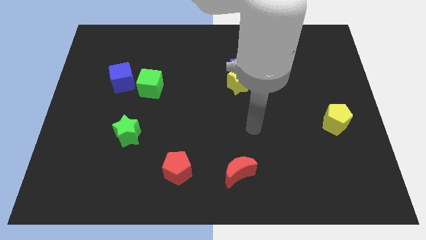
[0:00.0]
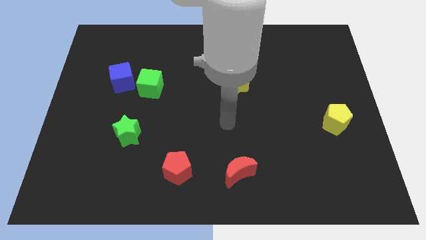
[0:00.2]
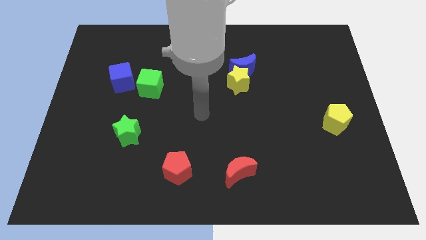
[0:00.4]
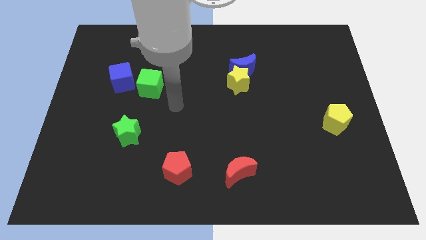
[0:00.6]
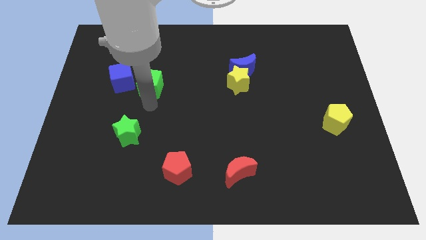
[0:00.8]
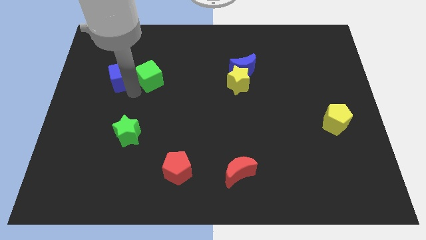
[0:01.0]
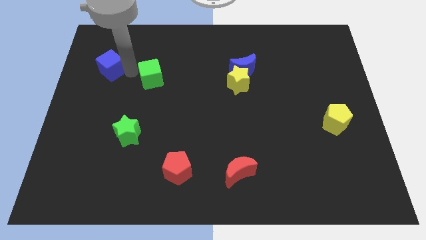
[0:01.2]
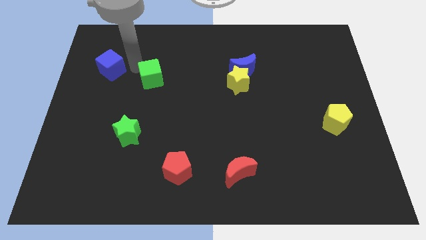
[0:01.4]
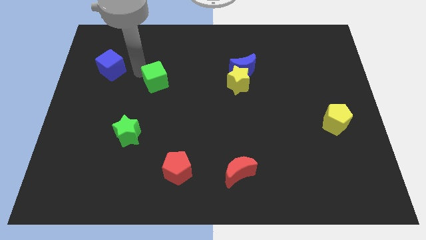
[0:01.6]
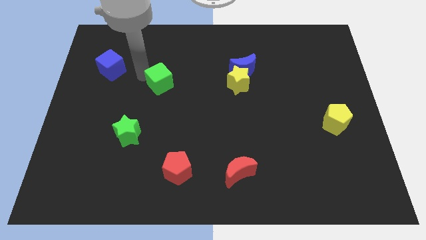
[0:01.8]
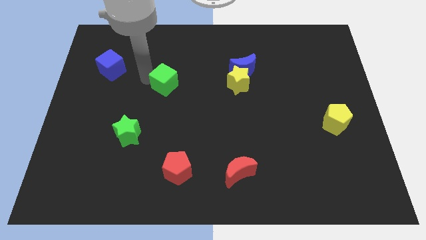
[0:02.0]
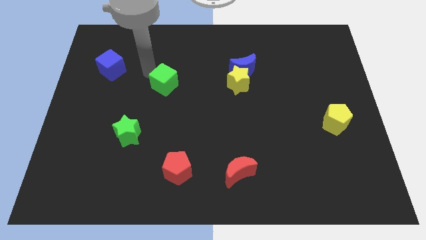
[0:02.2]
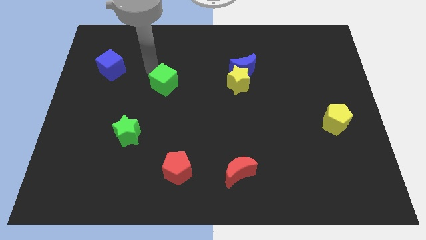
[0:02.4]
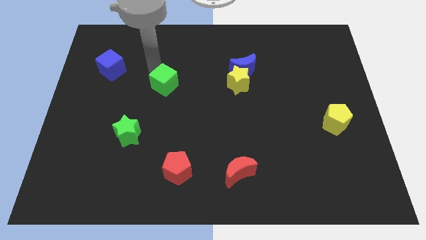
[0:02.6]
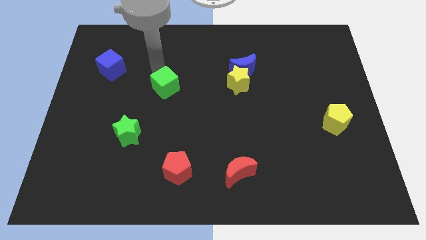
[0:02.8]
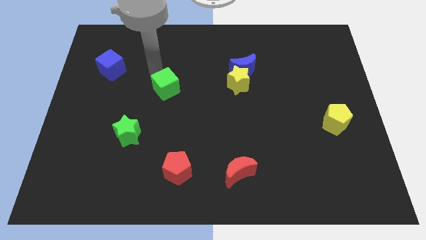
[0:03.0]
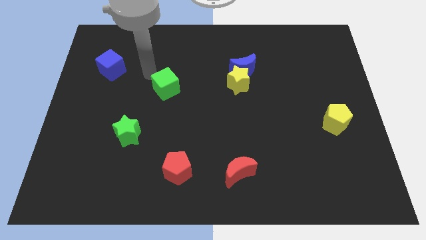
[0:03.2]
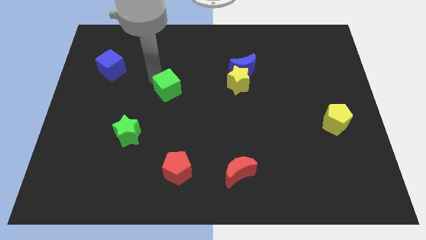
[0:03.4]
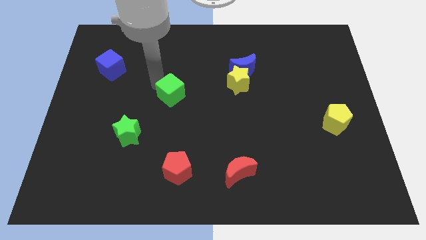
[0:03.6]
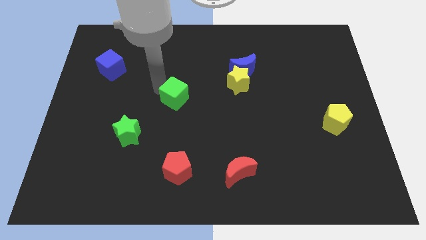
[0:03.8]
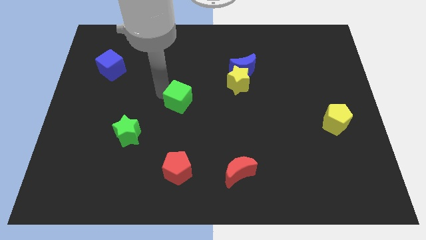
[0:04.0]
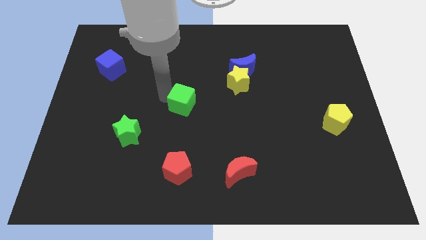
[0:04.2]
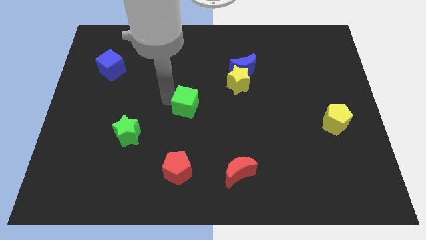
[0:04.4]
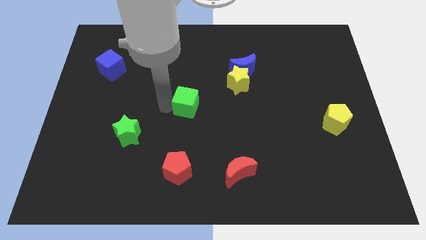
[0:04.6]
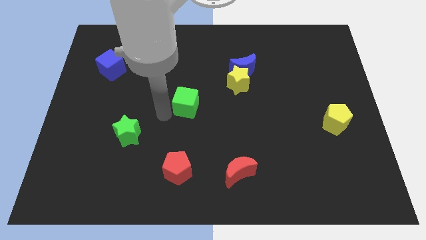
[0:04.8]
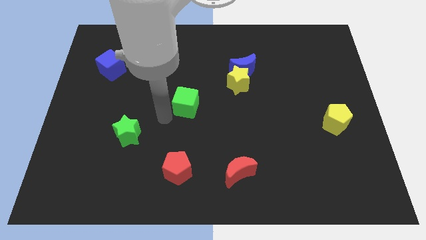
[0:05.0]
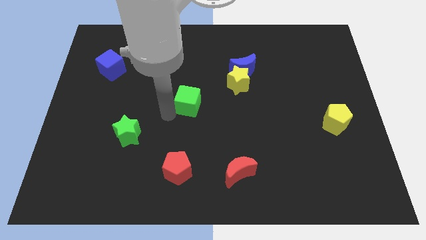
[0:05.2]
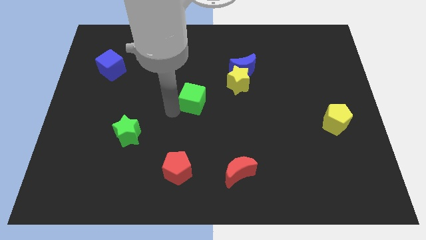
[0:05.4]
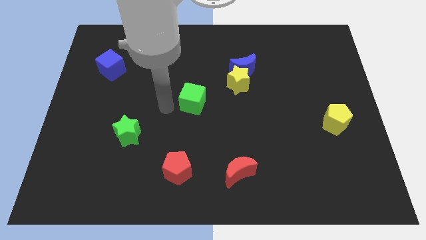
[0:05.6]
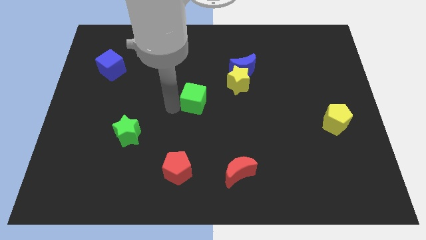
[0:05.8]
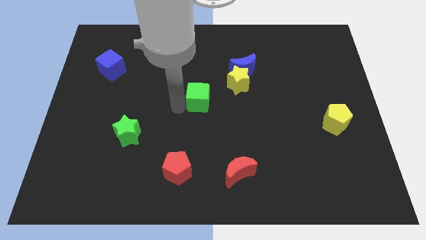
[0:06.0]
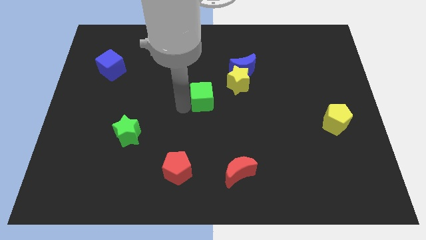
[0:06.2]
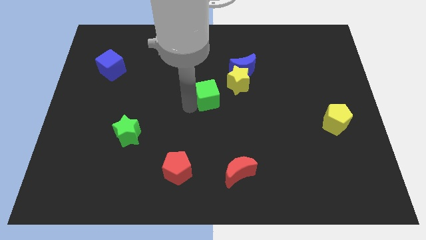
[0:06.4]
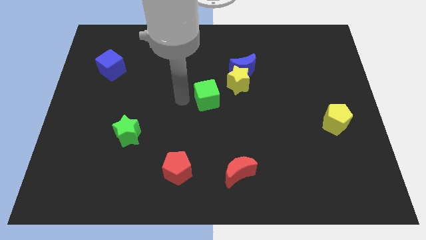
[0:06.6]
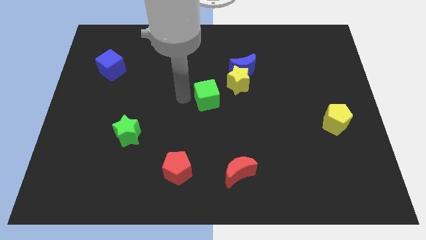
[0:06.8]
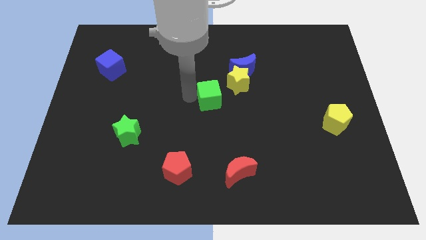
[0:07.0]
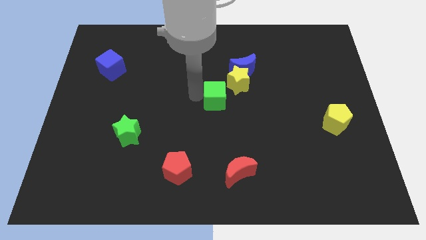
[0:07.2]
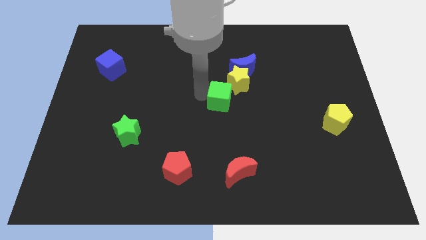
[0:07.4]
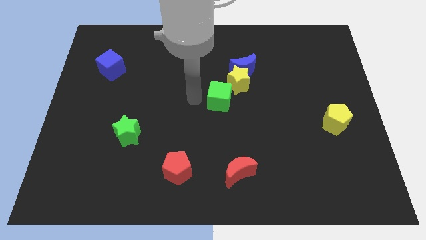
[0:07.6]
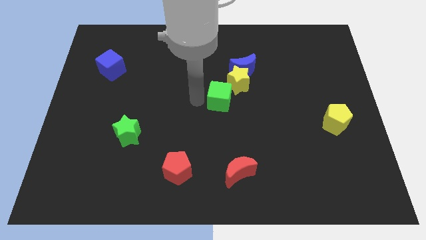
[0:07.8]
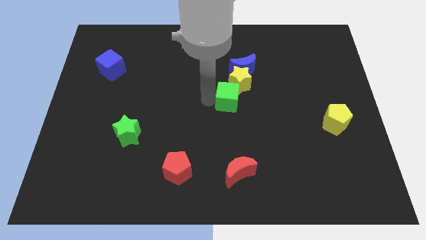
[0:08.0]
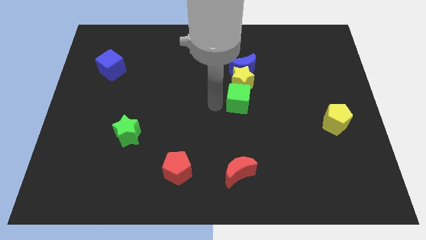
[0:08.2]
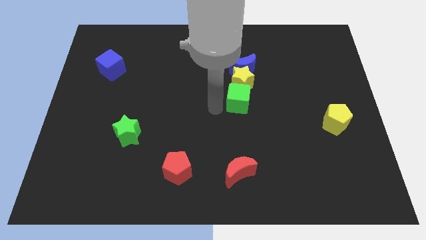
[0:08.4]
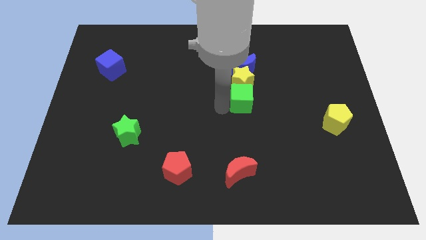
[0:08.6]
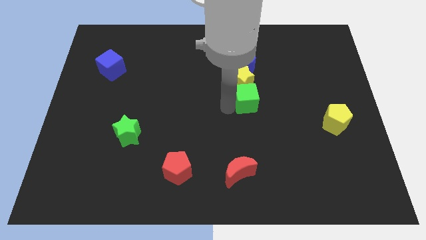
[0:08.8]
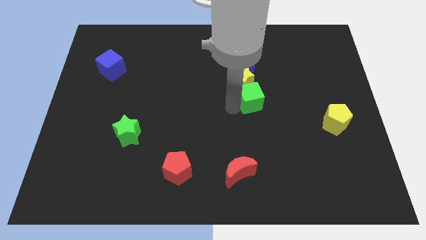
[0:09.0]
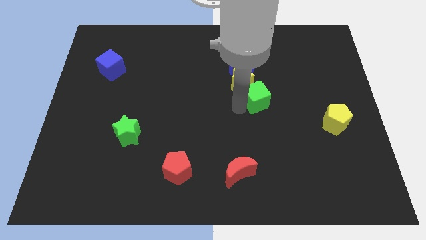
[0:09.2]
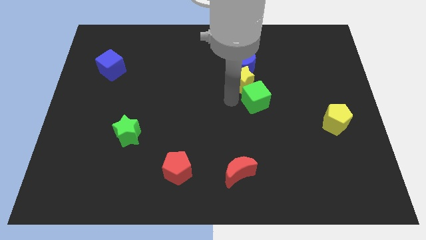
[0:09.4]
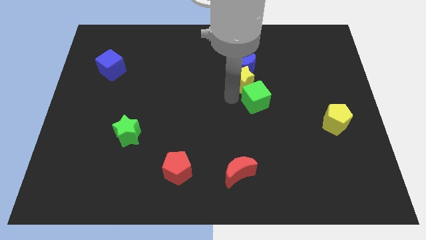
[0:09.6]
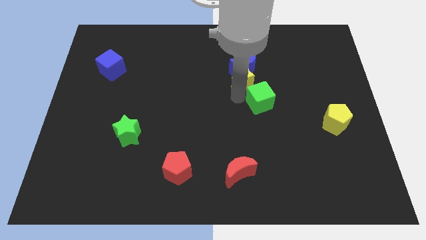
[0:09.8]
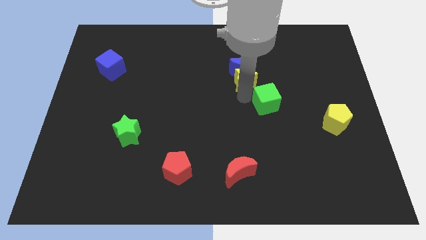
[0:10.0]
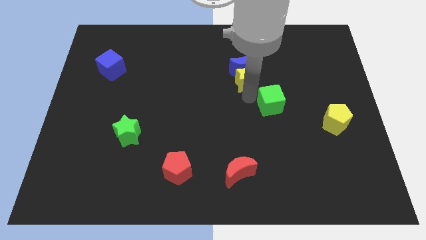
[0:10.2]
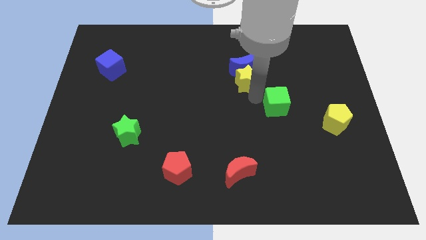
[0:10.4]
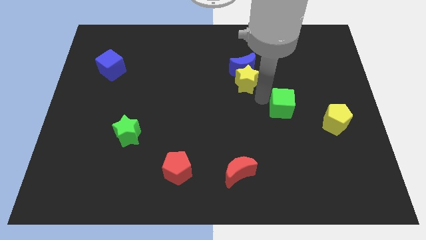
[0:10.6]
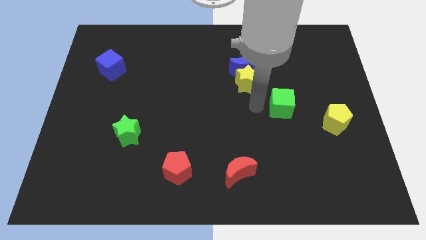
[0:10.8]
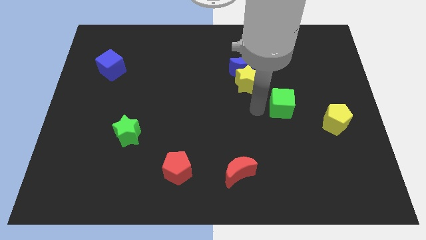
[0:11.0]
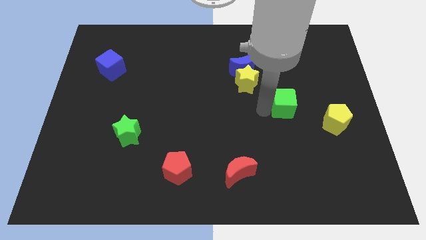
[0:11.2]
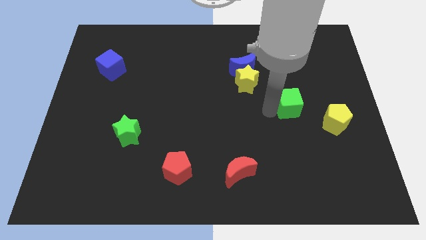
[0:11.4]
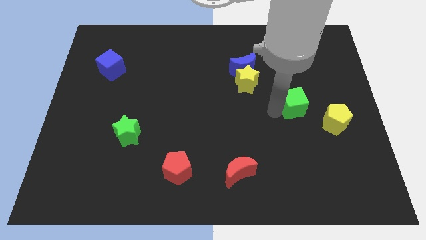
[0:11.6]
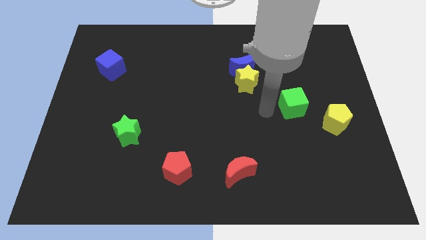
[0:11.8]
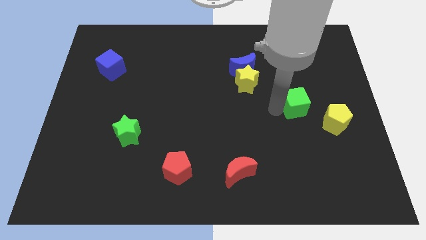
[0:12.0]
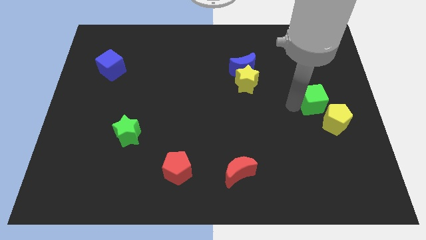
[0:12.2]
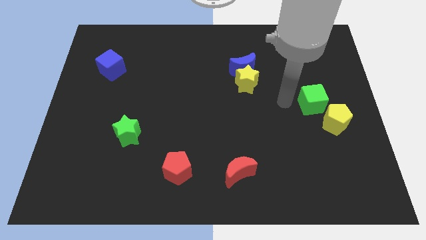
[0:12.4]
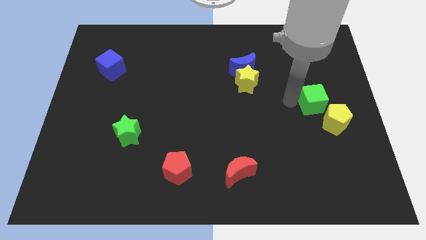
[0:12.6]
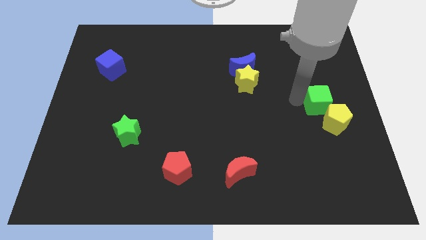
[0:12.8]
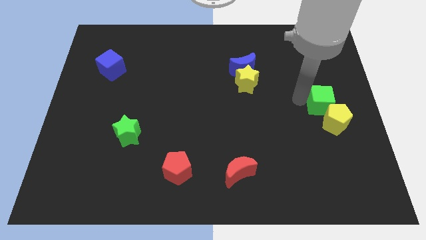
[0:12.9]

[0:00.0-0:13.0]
slide the green cube to the right side

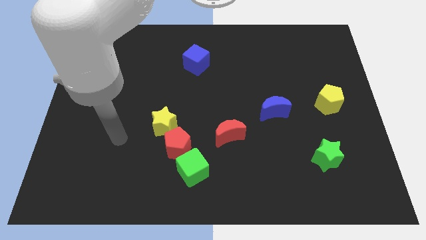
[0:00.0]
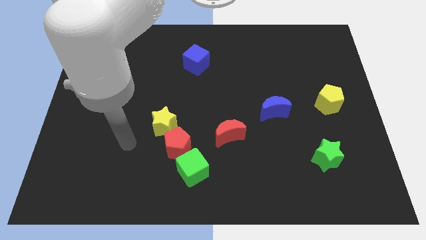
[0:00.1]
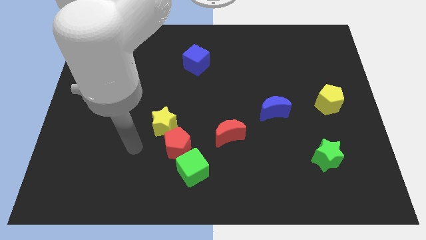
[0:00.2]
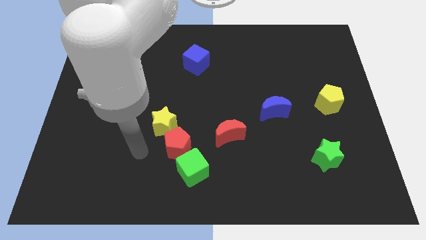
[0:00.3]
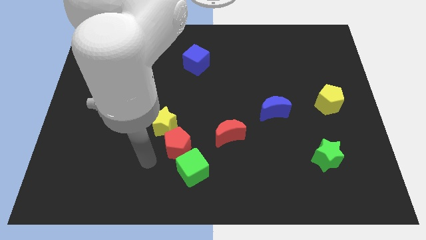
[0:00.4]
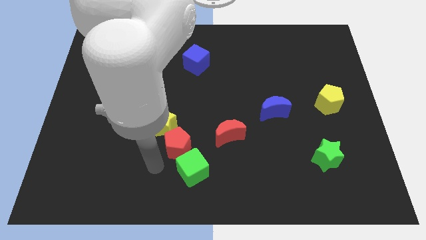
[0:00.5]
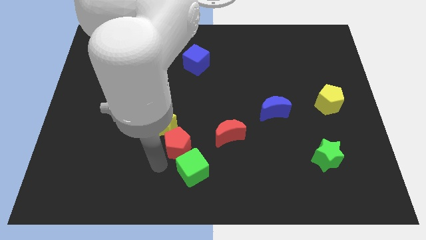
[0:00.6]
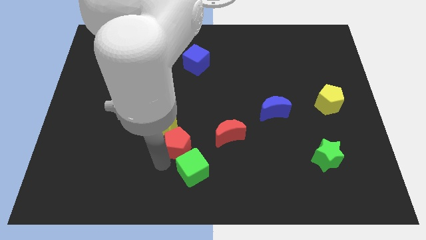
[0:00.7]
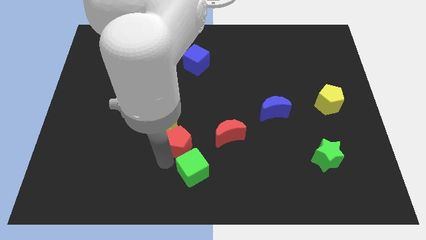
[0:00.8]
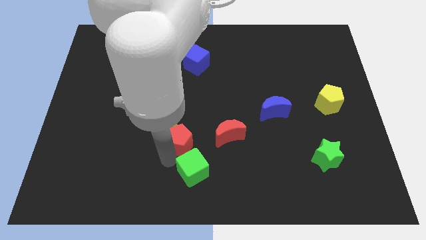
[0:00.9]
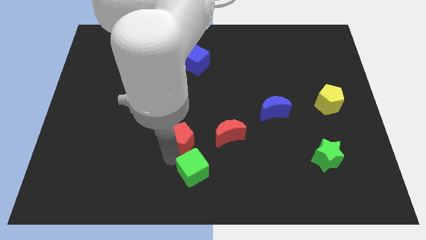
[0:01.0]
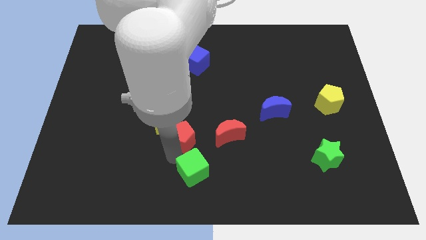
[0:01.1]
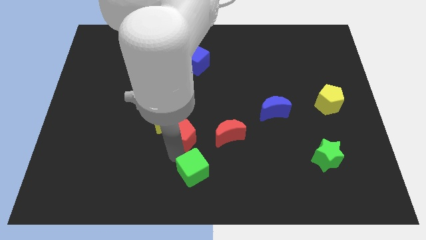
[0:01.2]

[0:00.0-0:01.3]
push the red pentagon to the middle
